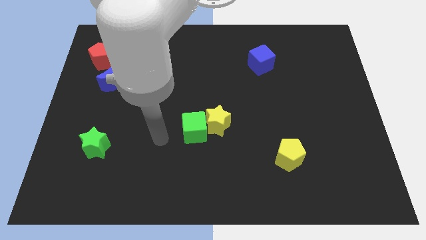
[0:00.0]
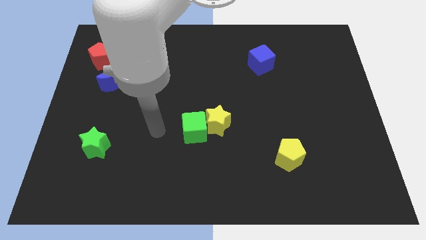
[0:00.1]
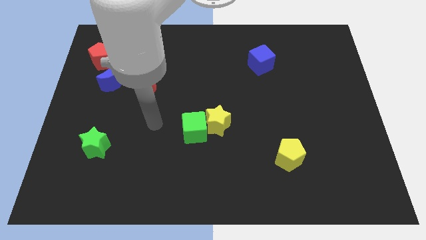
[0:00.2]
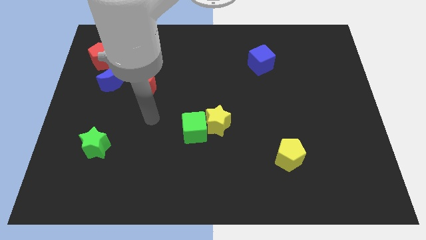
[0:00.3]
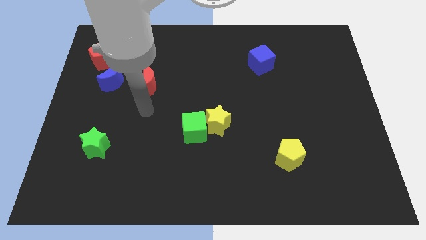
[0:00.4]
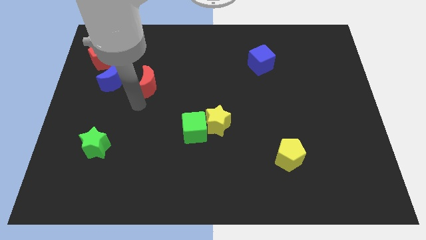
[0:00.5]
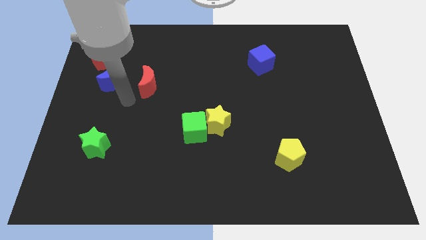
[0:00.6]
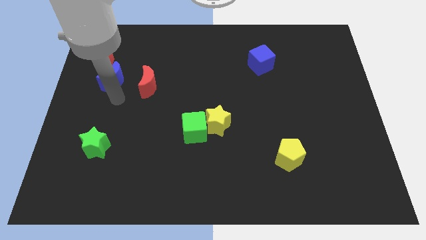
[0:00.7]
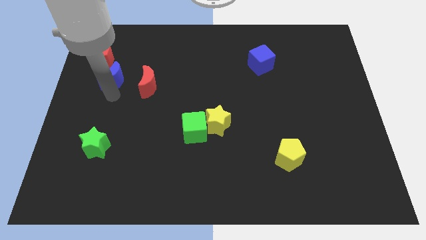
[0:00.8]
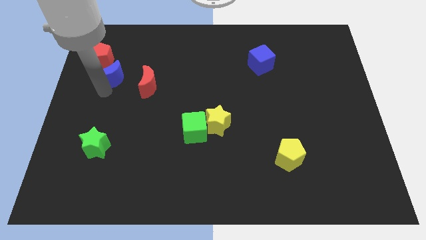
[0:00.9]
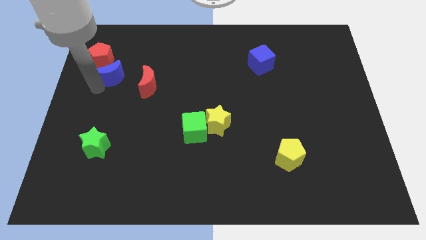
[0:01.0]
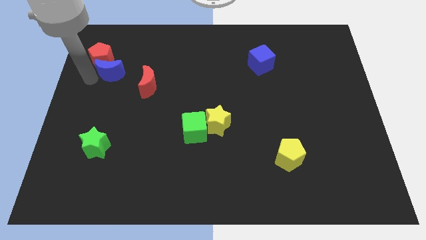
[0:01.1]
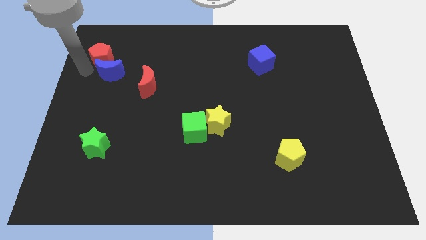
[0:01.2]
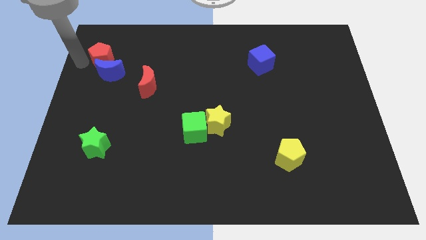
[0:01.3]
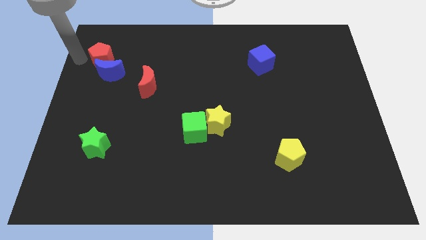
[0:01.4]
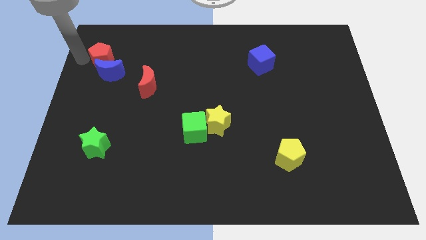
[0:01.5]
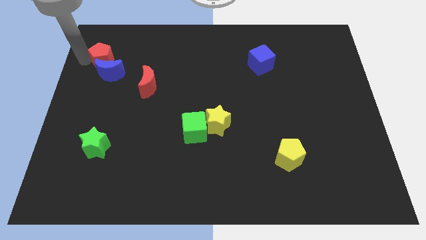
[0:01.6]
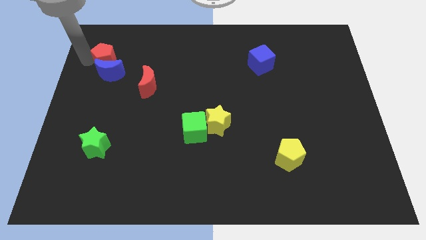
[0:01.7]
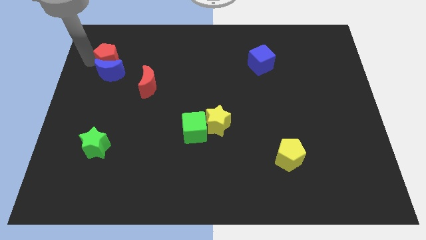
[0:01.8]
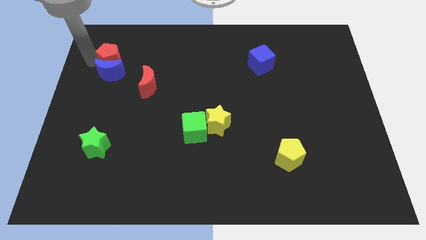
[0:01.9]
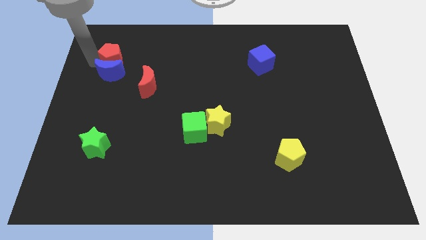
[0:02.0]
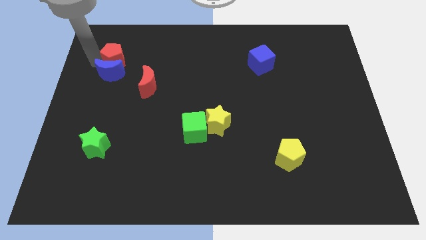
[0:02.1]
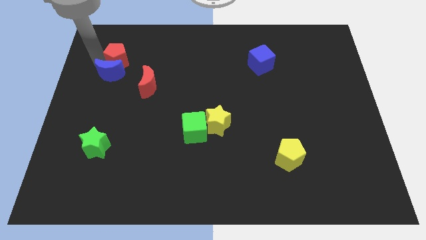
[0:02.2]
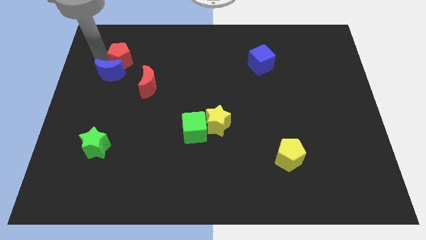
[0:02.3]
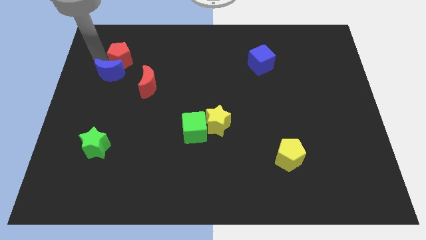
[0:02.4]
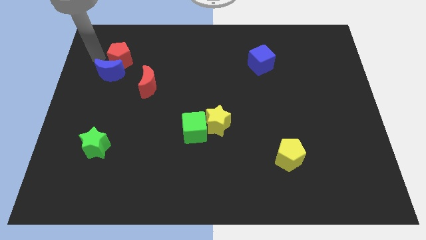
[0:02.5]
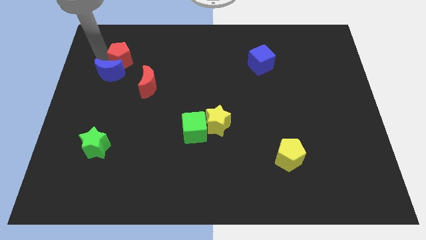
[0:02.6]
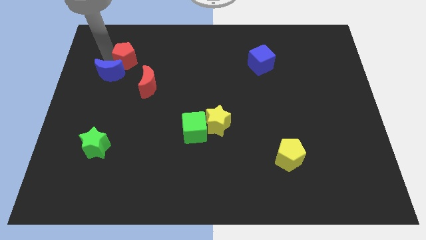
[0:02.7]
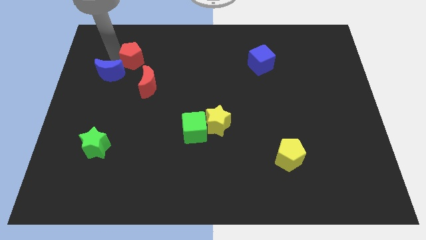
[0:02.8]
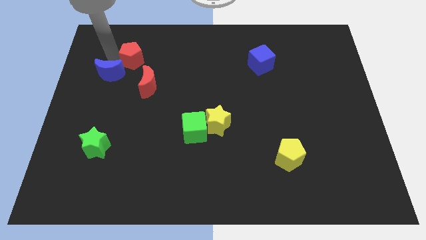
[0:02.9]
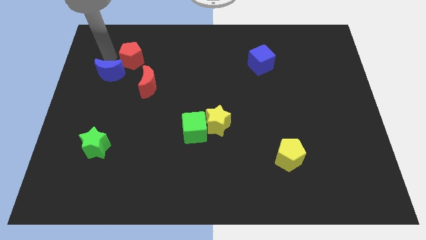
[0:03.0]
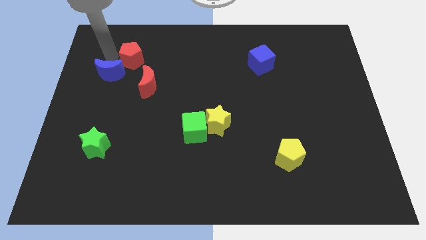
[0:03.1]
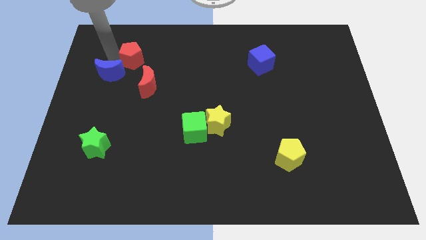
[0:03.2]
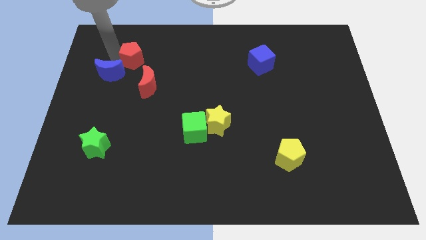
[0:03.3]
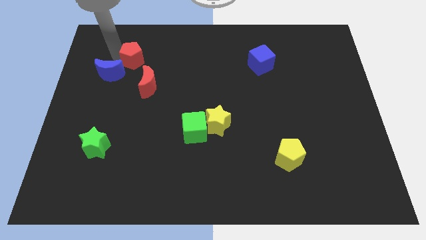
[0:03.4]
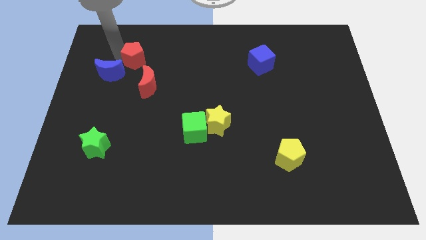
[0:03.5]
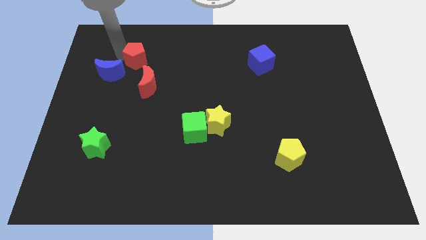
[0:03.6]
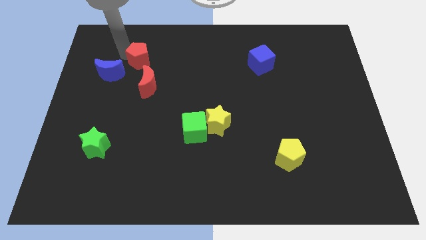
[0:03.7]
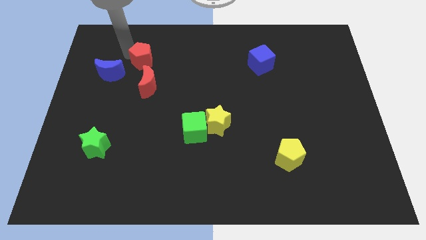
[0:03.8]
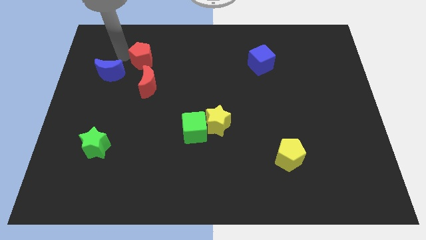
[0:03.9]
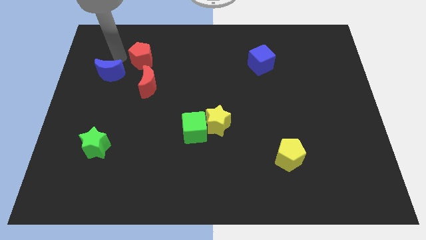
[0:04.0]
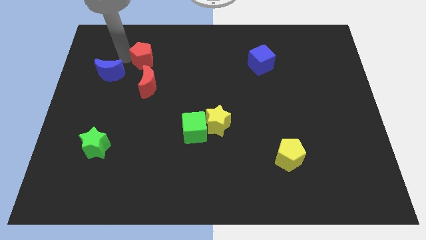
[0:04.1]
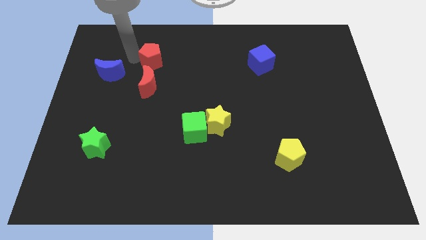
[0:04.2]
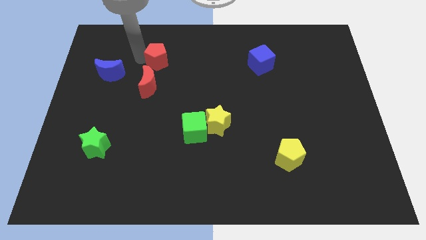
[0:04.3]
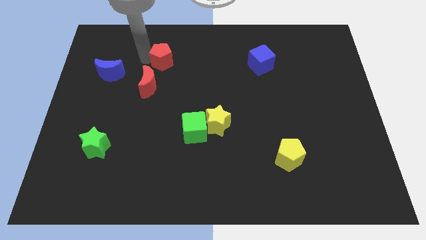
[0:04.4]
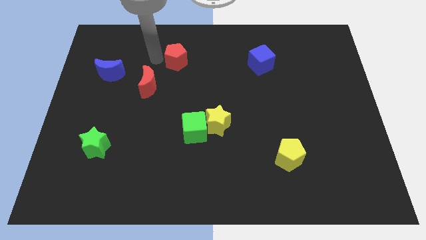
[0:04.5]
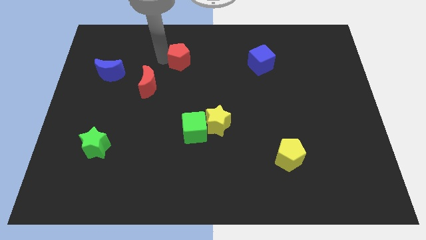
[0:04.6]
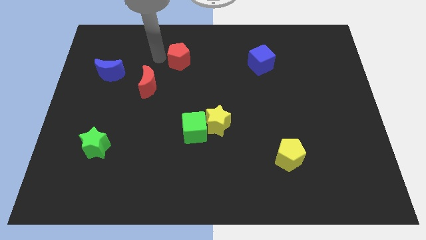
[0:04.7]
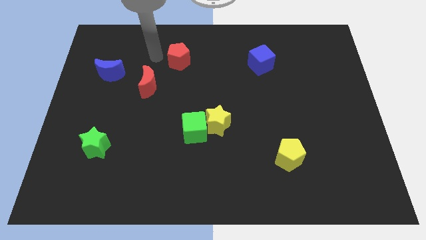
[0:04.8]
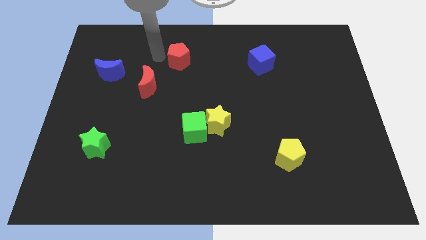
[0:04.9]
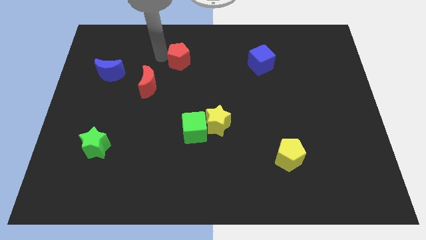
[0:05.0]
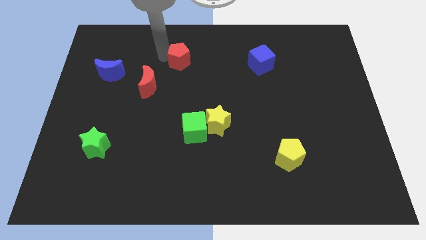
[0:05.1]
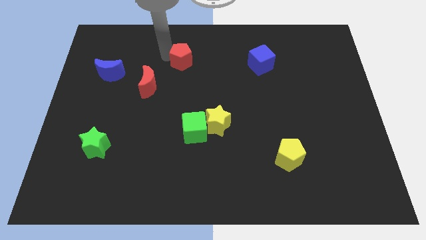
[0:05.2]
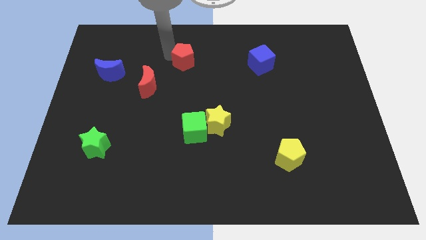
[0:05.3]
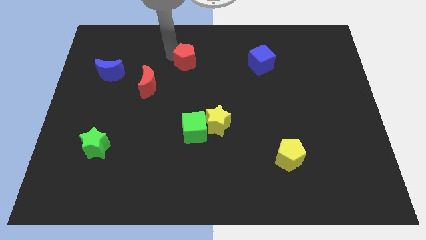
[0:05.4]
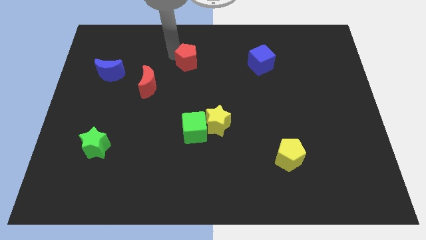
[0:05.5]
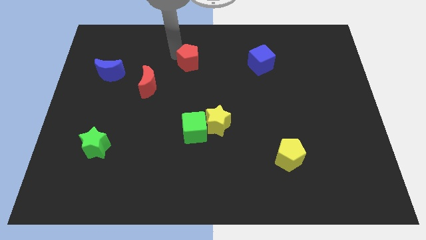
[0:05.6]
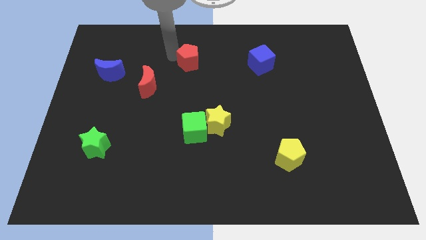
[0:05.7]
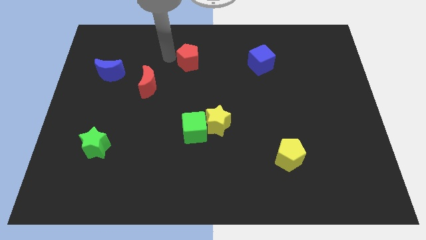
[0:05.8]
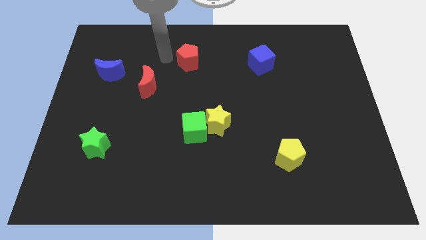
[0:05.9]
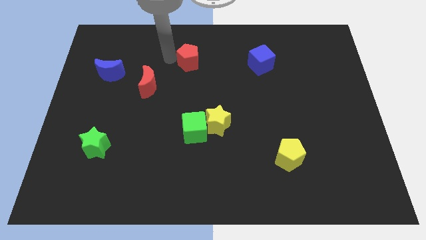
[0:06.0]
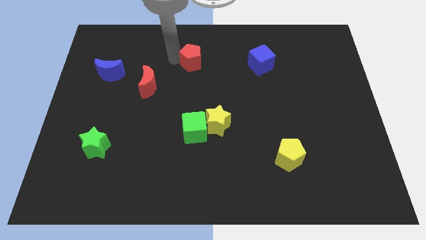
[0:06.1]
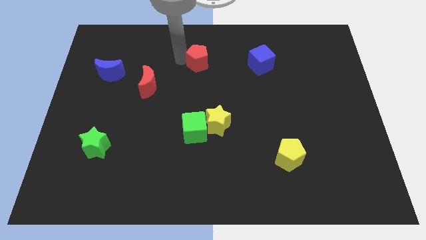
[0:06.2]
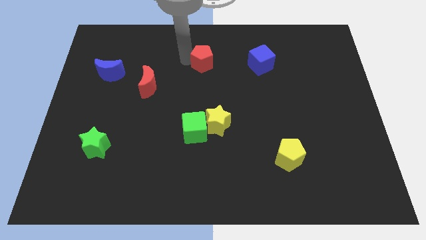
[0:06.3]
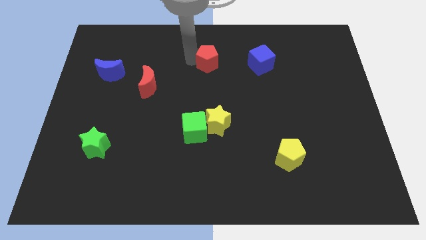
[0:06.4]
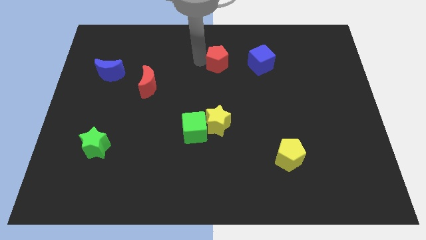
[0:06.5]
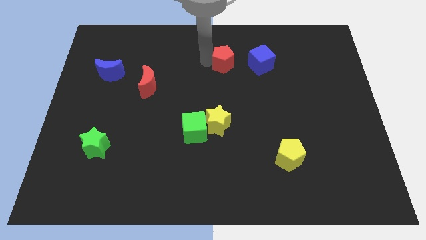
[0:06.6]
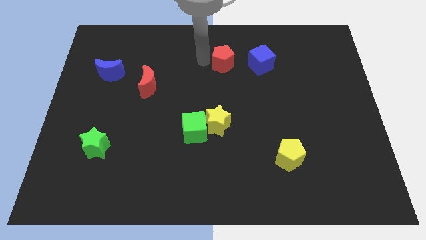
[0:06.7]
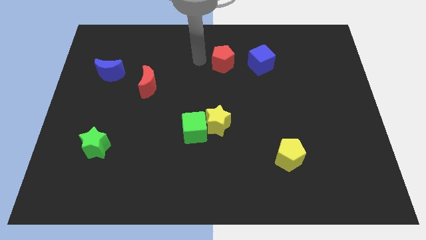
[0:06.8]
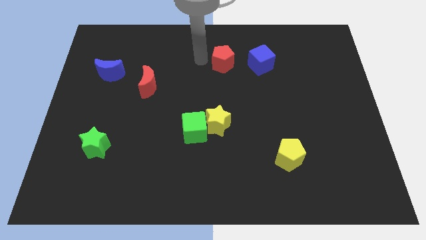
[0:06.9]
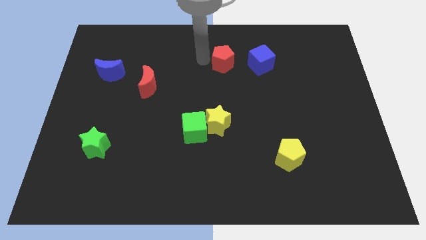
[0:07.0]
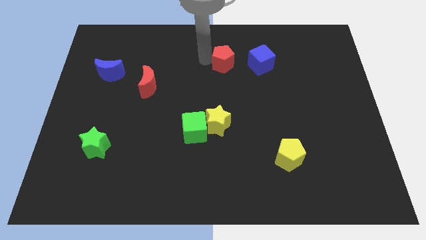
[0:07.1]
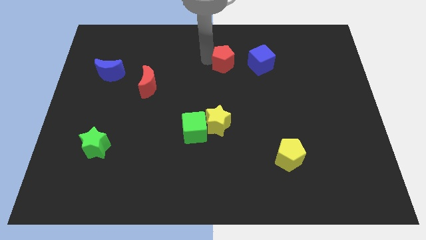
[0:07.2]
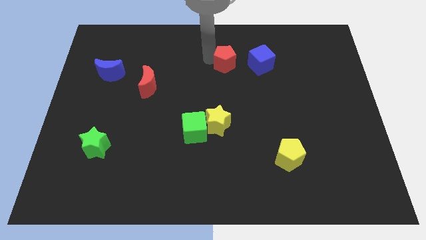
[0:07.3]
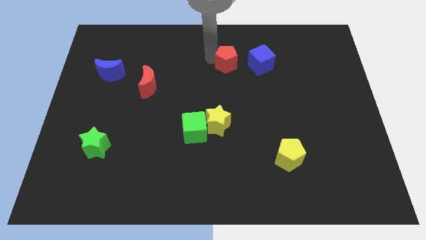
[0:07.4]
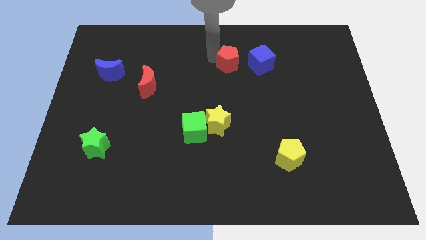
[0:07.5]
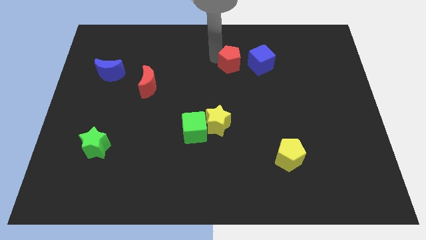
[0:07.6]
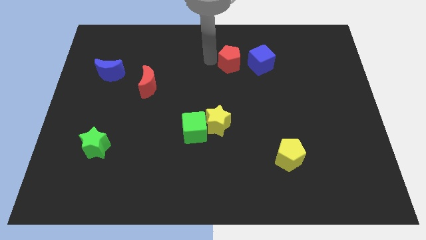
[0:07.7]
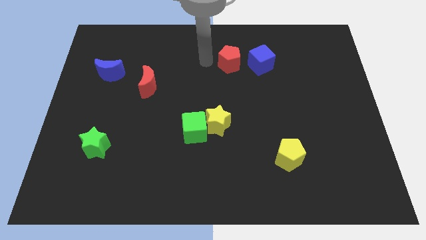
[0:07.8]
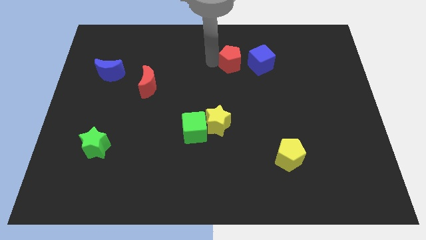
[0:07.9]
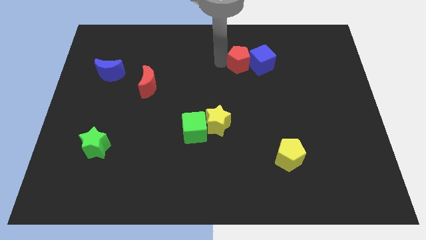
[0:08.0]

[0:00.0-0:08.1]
push the red pentagon towards the blue cube
